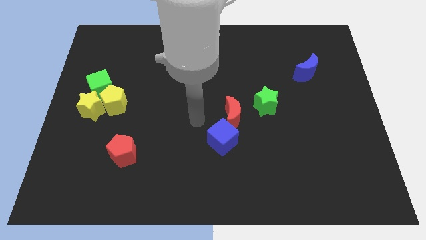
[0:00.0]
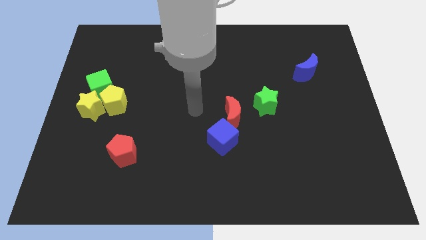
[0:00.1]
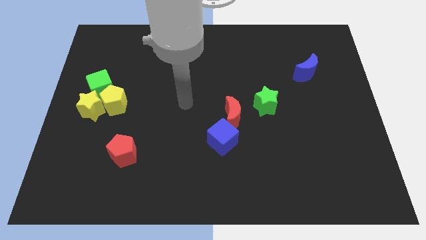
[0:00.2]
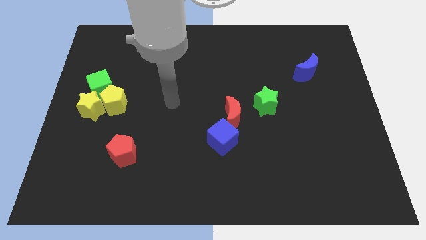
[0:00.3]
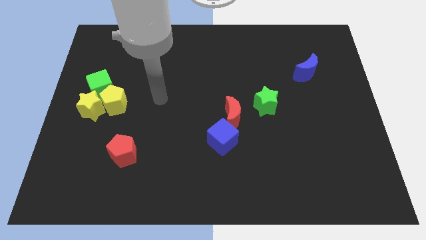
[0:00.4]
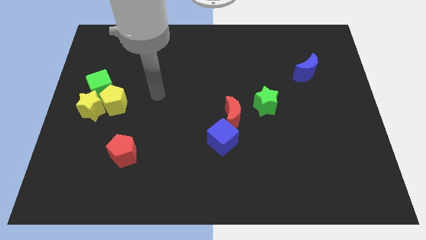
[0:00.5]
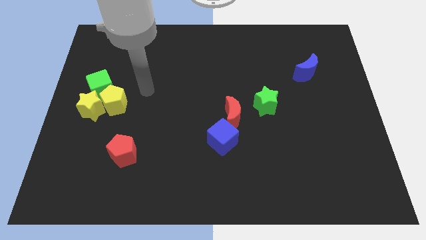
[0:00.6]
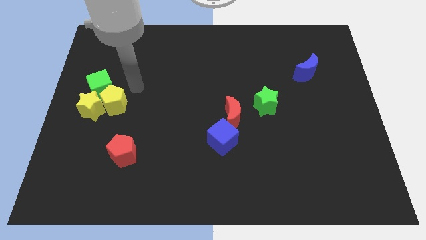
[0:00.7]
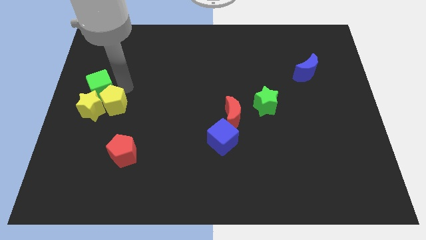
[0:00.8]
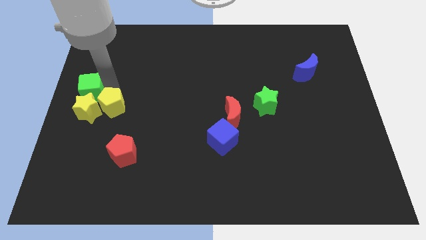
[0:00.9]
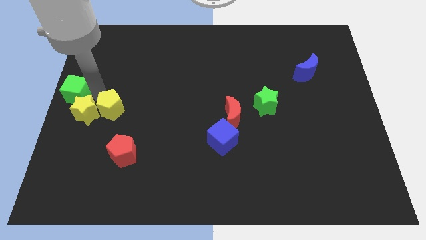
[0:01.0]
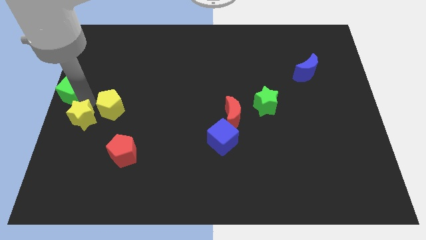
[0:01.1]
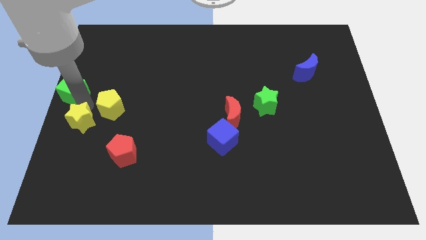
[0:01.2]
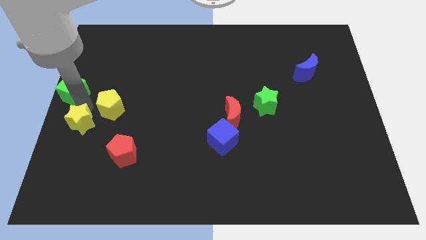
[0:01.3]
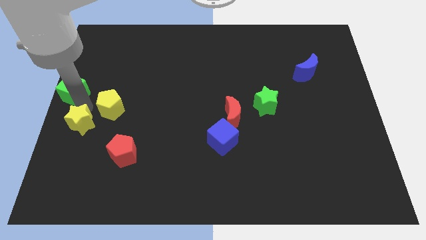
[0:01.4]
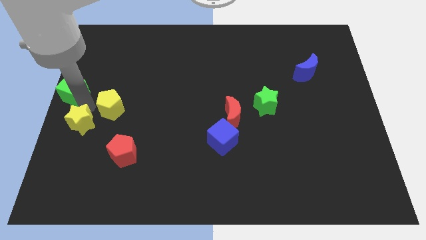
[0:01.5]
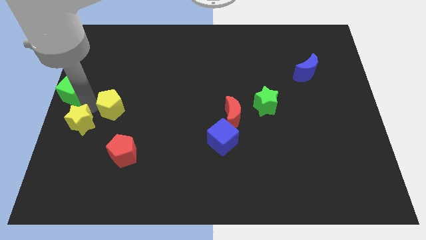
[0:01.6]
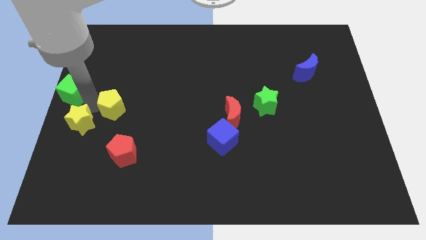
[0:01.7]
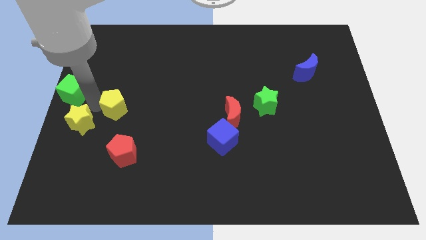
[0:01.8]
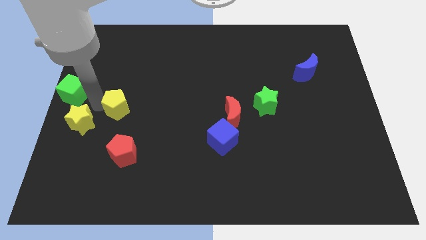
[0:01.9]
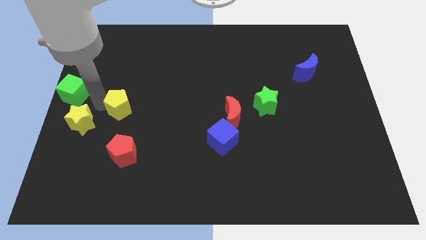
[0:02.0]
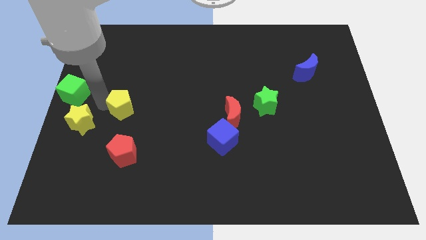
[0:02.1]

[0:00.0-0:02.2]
pull the yellow pentagon apart from the yellow star and green cube

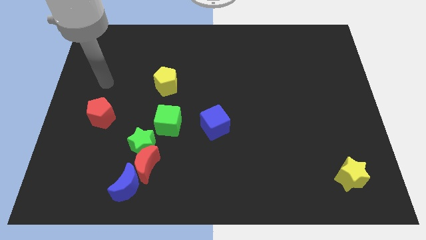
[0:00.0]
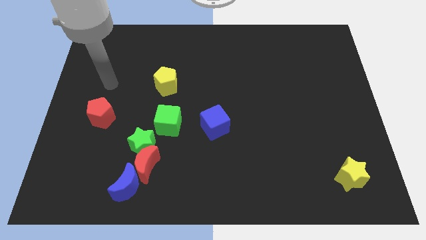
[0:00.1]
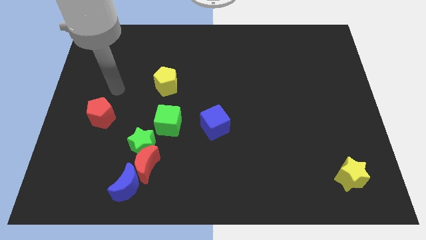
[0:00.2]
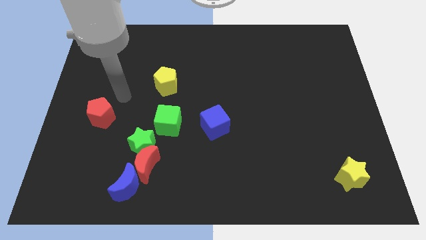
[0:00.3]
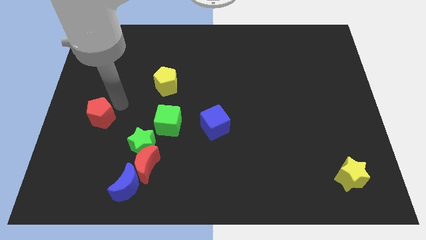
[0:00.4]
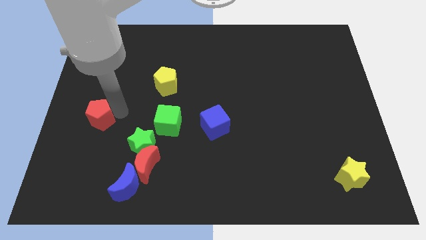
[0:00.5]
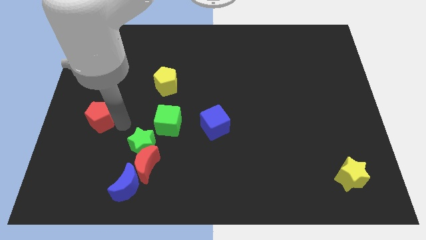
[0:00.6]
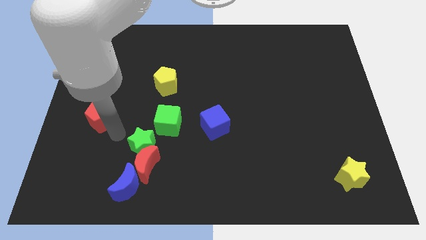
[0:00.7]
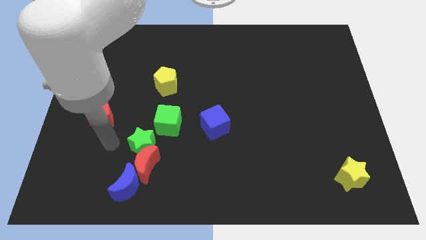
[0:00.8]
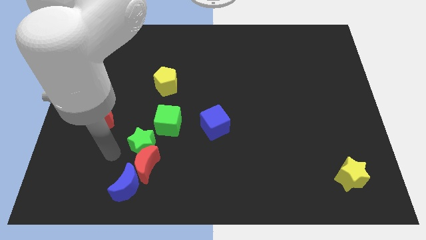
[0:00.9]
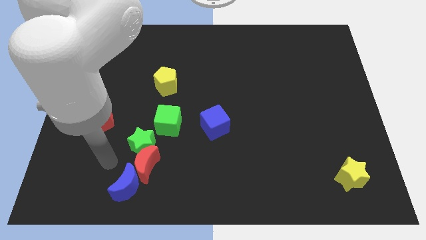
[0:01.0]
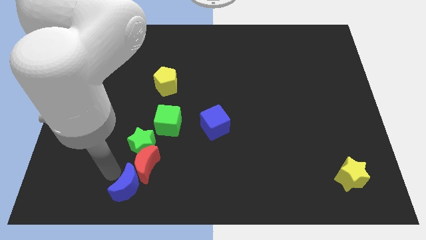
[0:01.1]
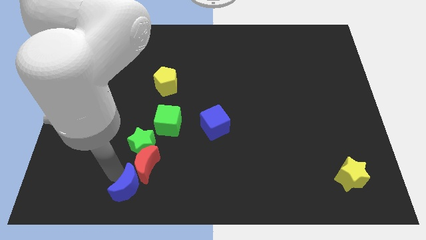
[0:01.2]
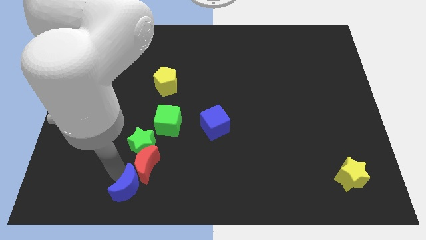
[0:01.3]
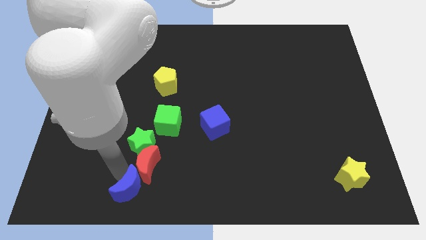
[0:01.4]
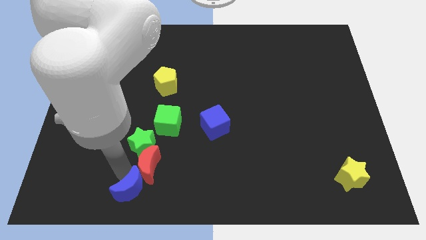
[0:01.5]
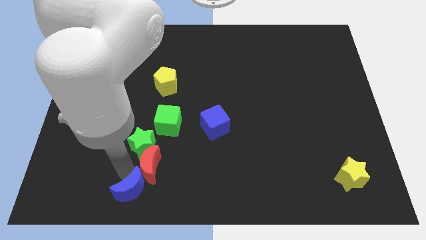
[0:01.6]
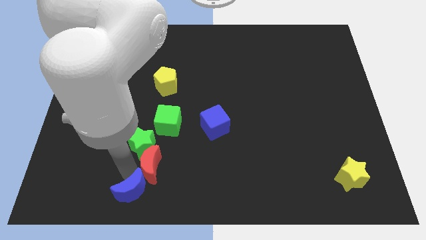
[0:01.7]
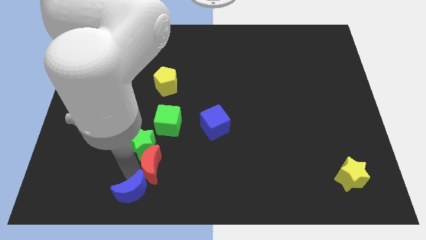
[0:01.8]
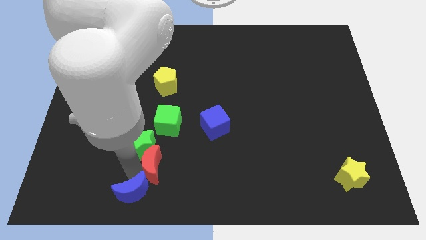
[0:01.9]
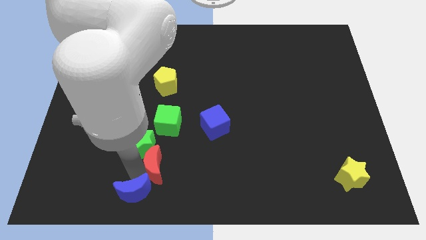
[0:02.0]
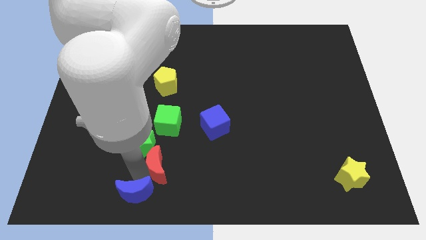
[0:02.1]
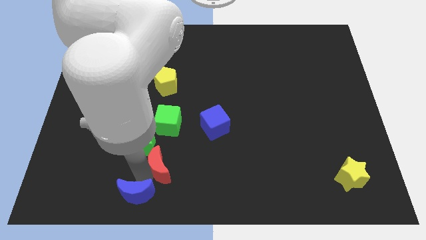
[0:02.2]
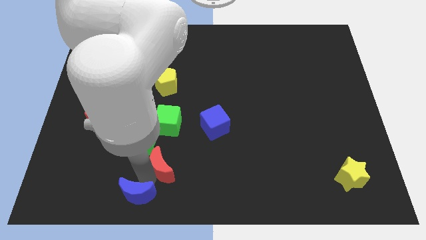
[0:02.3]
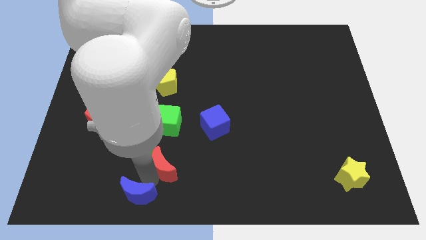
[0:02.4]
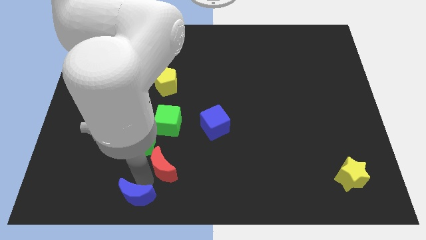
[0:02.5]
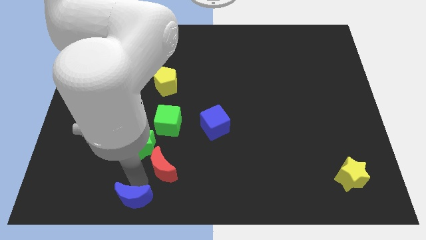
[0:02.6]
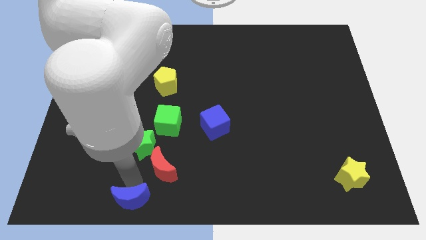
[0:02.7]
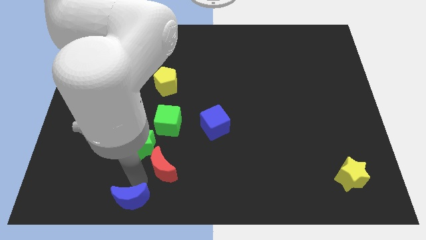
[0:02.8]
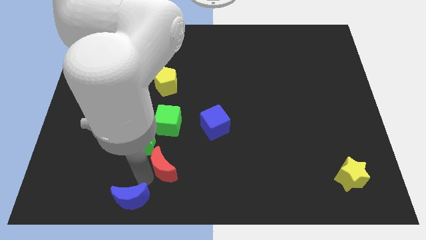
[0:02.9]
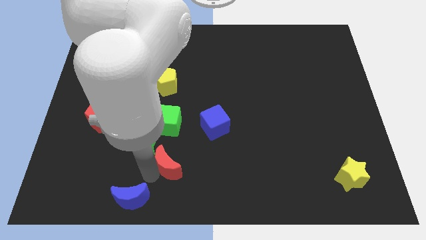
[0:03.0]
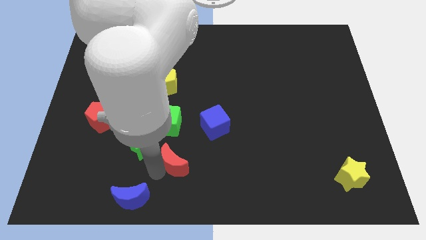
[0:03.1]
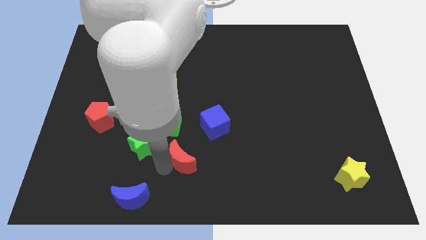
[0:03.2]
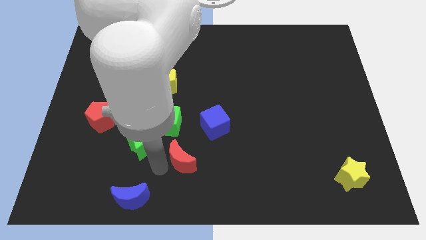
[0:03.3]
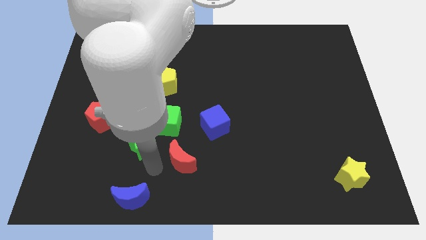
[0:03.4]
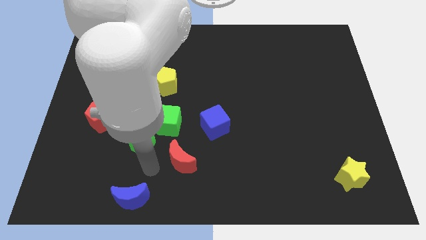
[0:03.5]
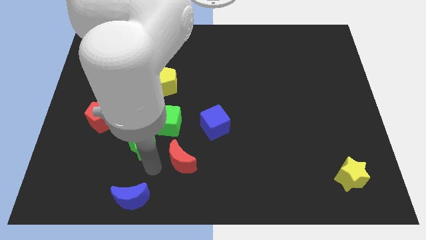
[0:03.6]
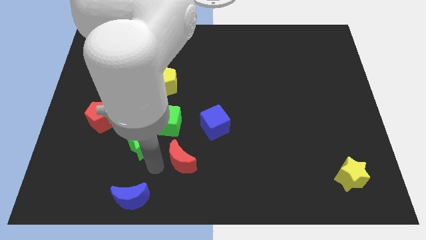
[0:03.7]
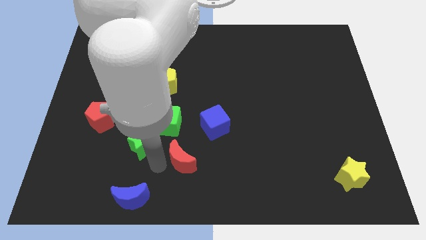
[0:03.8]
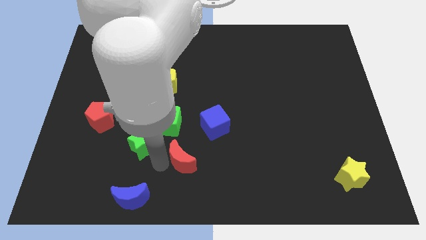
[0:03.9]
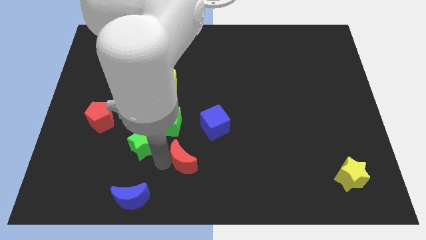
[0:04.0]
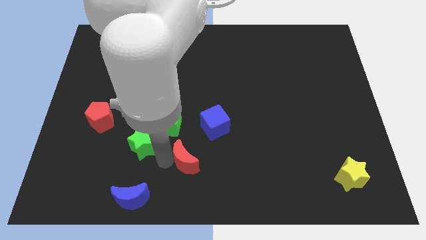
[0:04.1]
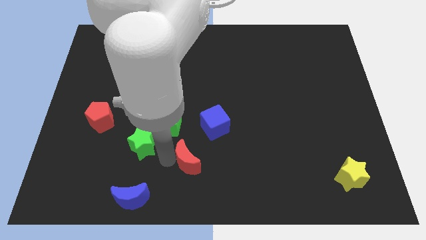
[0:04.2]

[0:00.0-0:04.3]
move the red moon away from the green star and blue moon

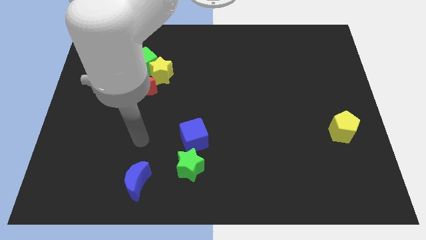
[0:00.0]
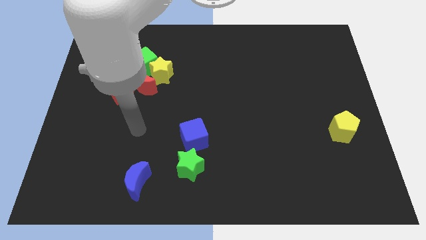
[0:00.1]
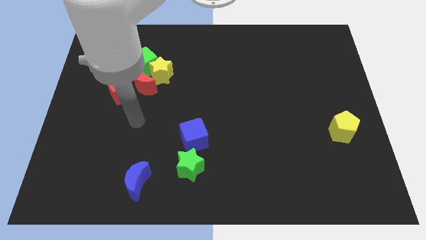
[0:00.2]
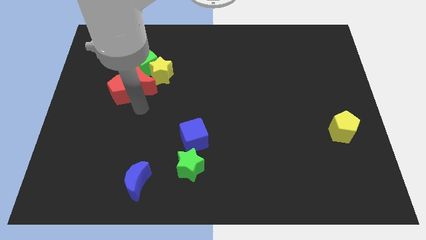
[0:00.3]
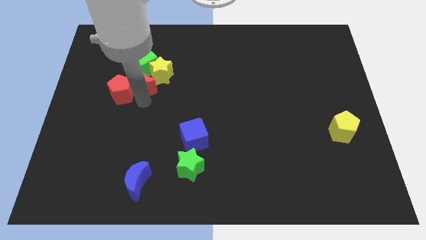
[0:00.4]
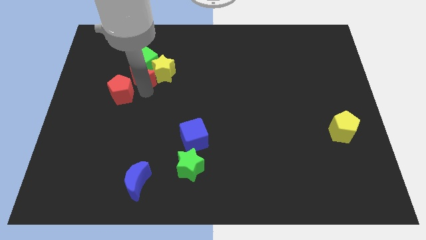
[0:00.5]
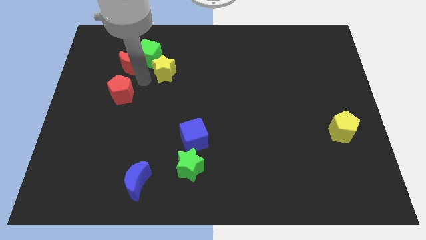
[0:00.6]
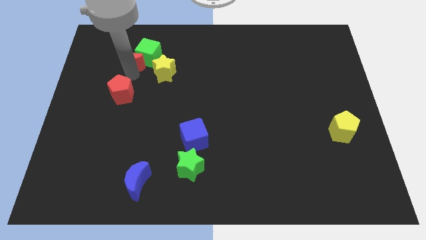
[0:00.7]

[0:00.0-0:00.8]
move the red pentagon away from the red moon

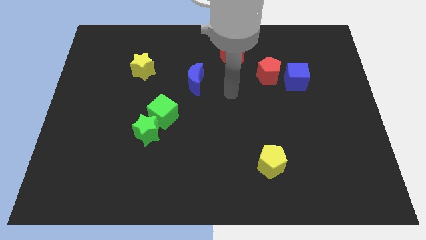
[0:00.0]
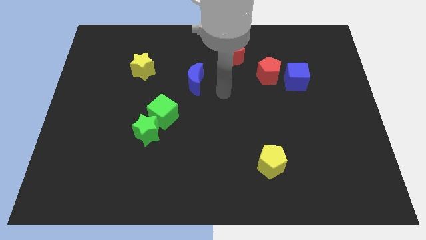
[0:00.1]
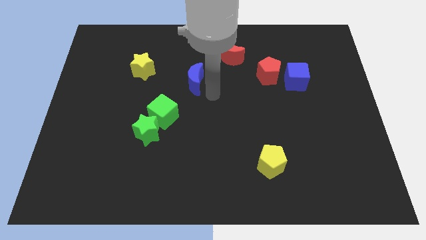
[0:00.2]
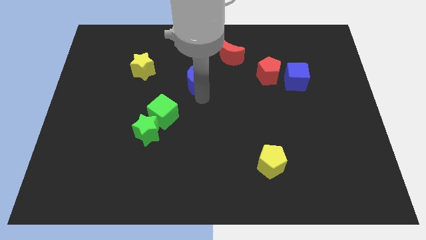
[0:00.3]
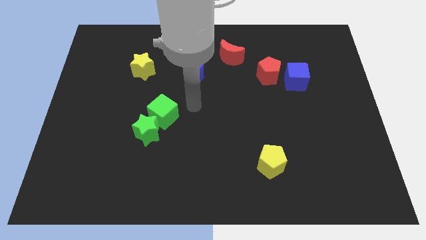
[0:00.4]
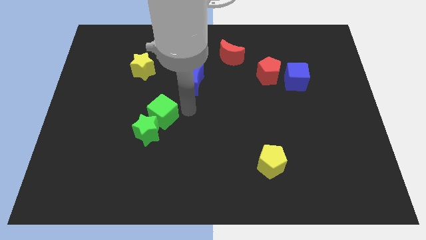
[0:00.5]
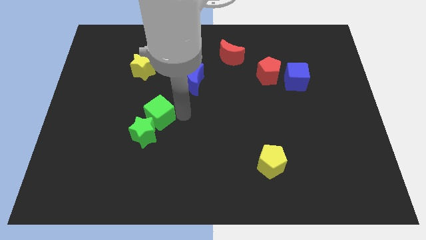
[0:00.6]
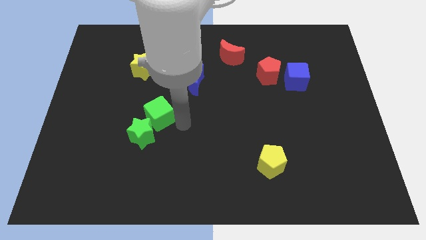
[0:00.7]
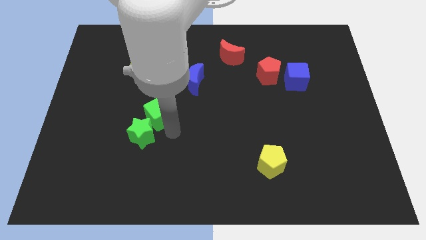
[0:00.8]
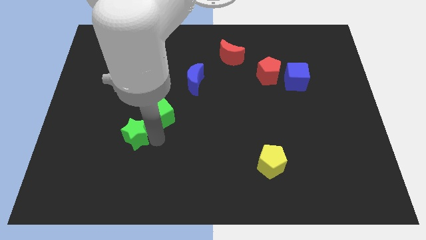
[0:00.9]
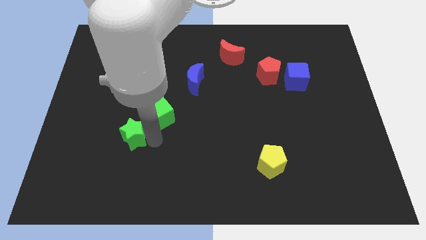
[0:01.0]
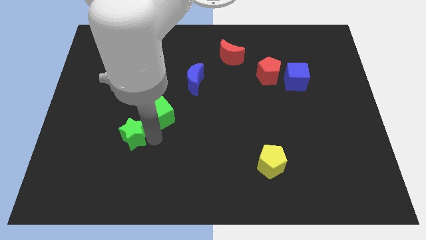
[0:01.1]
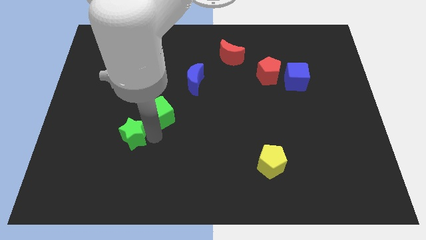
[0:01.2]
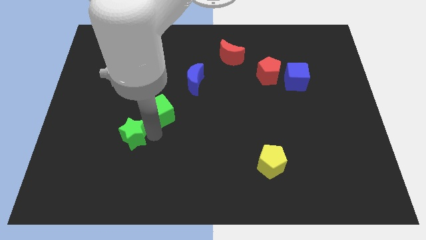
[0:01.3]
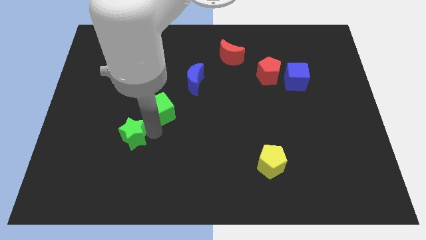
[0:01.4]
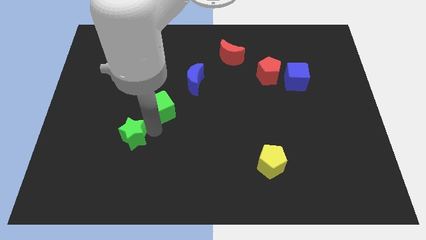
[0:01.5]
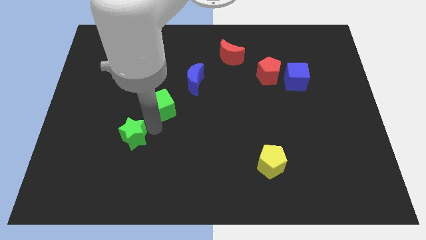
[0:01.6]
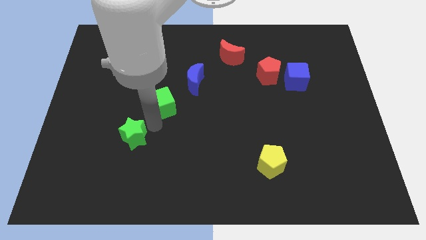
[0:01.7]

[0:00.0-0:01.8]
move the green cube away from the green star

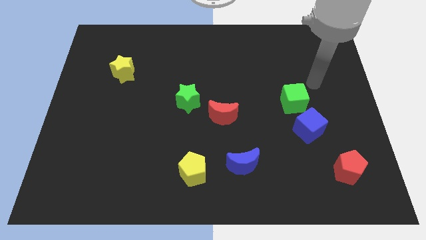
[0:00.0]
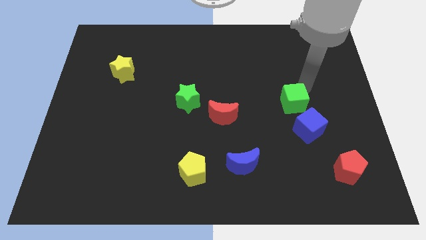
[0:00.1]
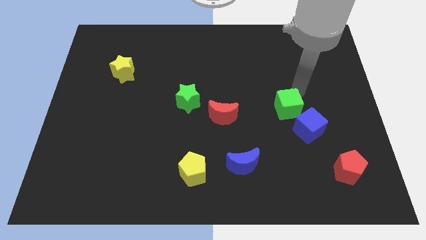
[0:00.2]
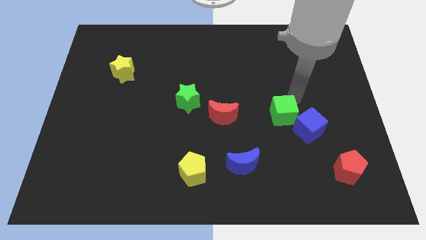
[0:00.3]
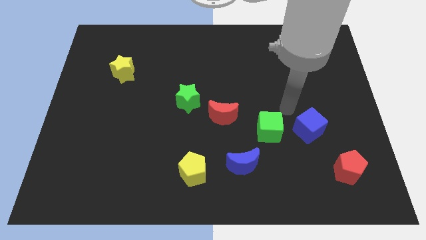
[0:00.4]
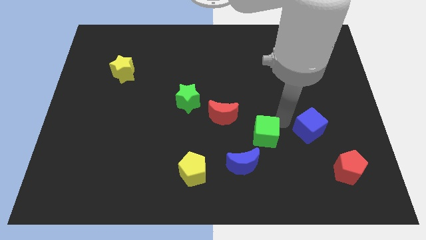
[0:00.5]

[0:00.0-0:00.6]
move the blue cube away from the green cube
